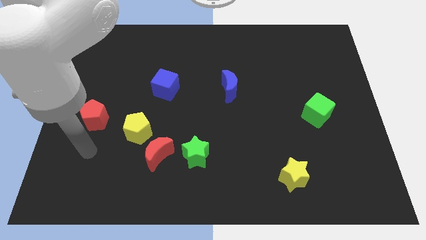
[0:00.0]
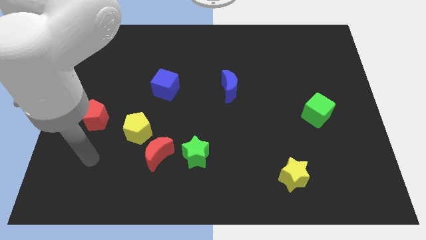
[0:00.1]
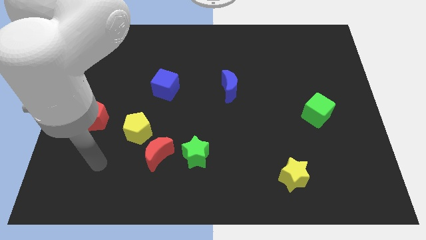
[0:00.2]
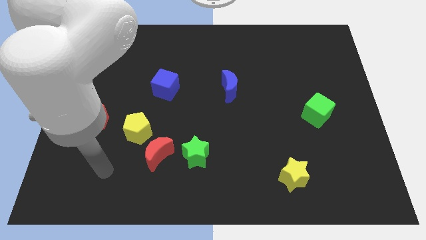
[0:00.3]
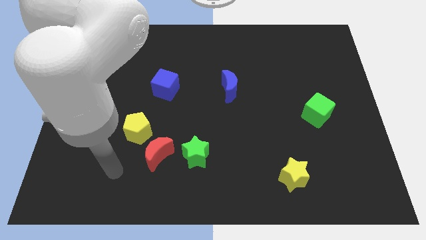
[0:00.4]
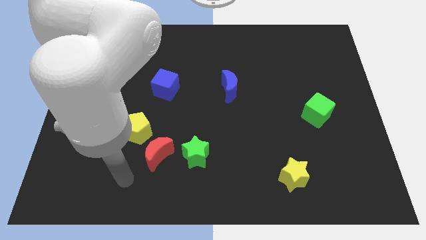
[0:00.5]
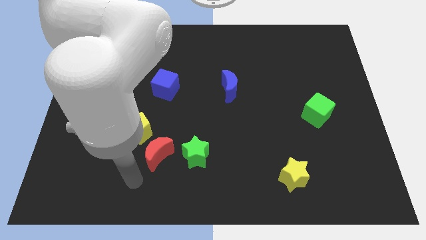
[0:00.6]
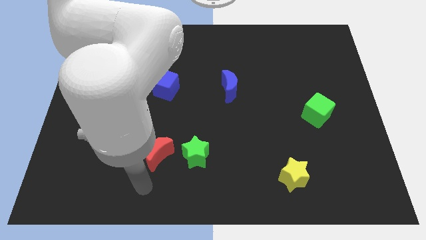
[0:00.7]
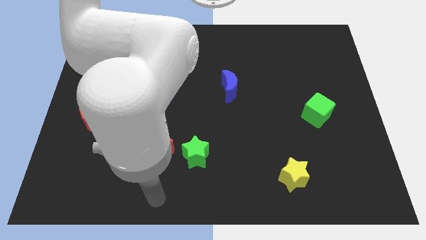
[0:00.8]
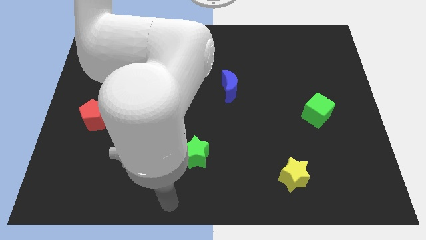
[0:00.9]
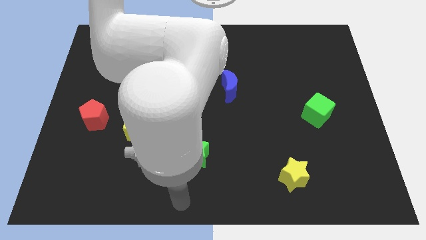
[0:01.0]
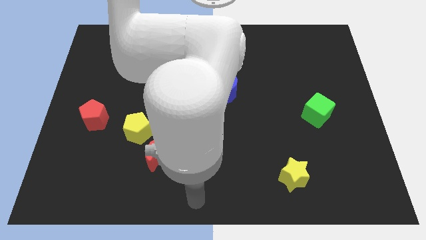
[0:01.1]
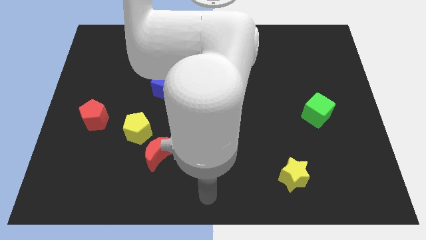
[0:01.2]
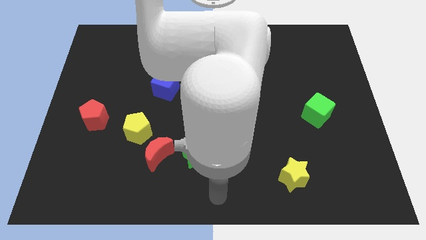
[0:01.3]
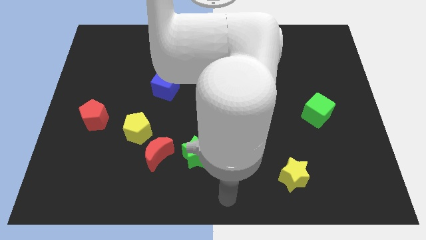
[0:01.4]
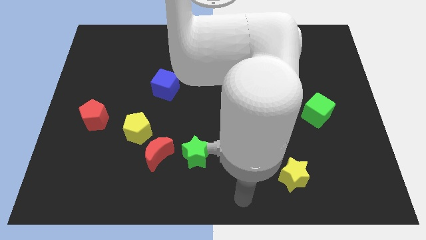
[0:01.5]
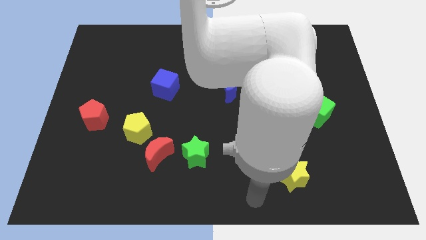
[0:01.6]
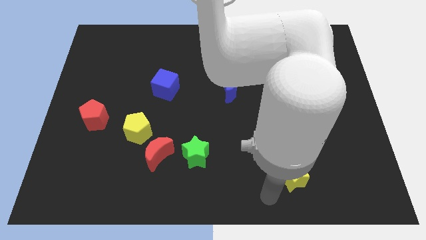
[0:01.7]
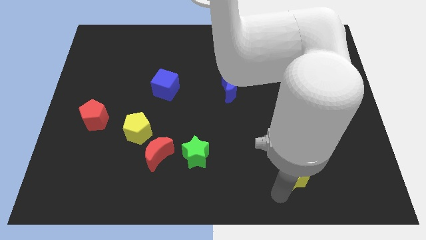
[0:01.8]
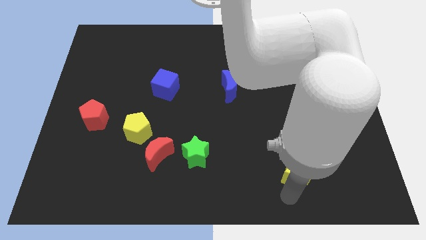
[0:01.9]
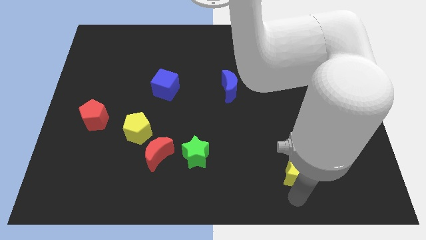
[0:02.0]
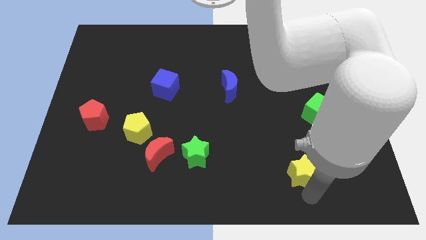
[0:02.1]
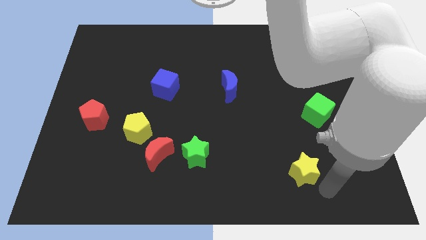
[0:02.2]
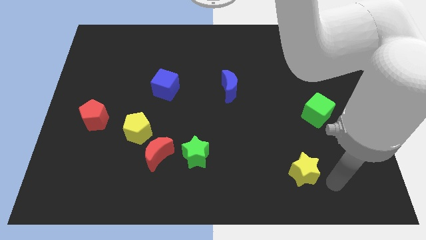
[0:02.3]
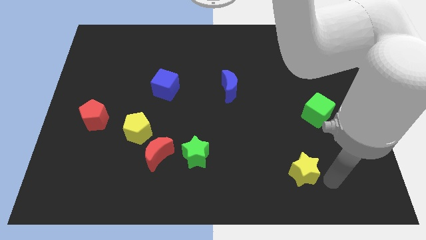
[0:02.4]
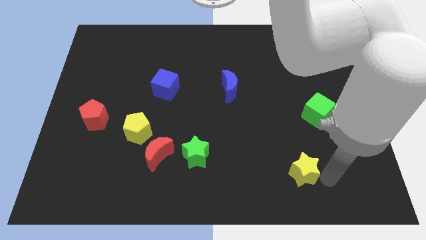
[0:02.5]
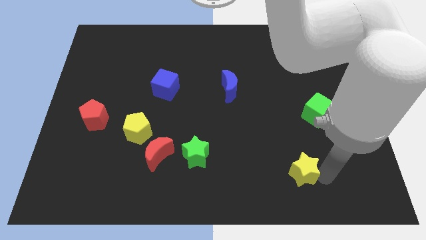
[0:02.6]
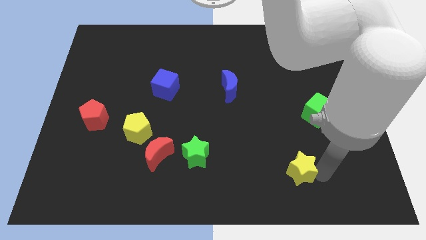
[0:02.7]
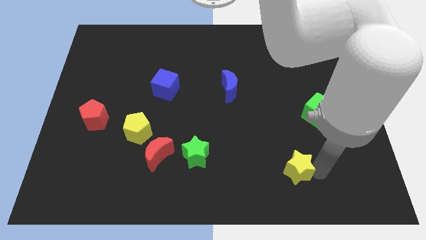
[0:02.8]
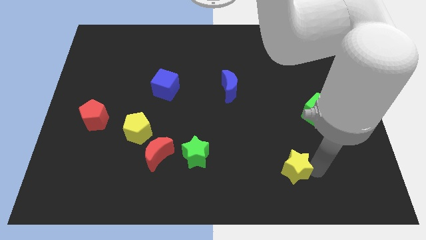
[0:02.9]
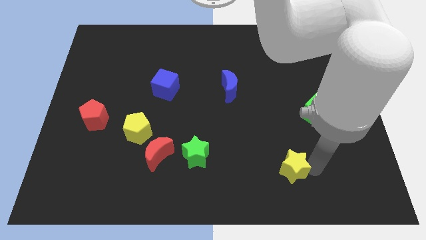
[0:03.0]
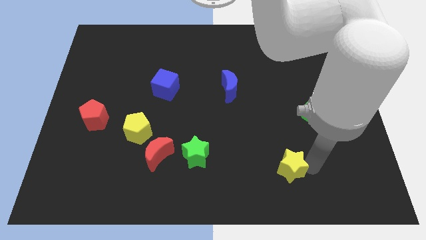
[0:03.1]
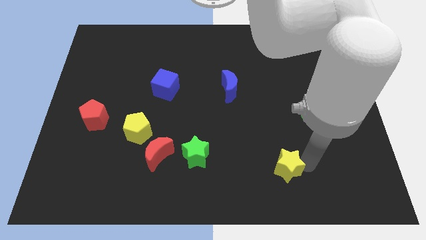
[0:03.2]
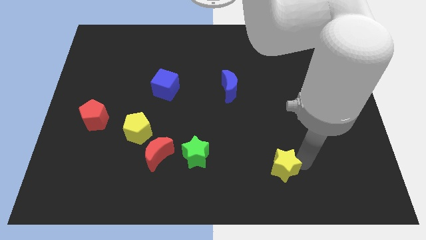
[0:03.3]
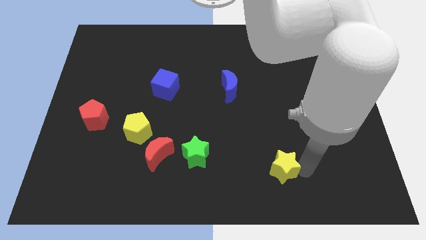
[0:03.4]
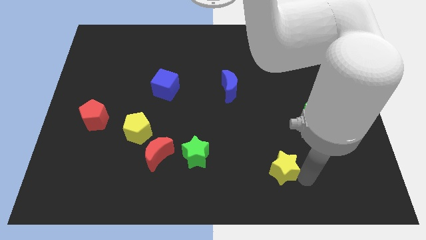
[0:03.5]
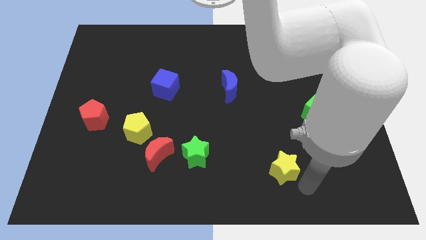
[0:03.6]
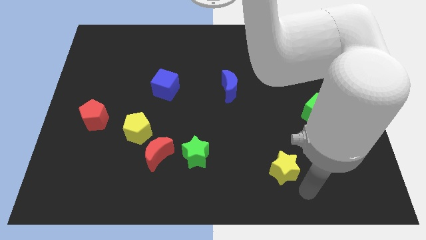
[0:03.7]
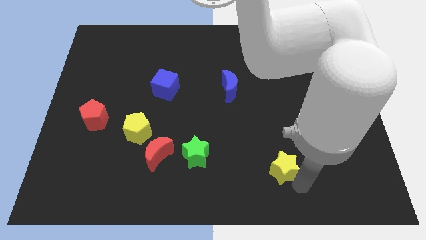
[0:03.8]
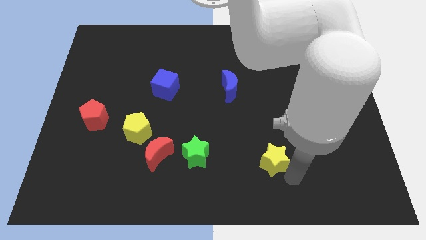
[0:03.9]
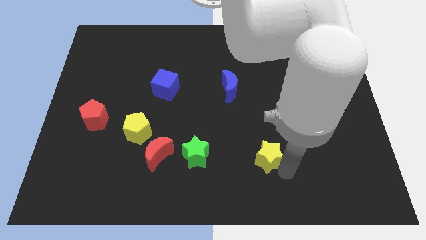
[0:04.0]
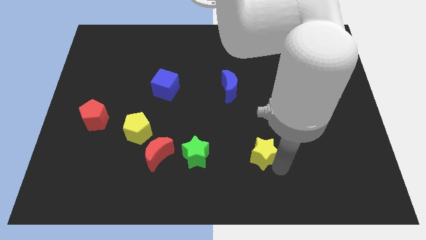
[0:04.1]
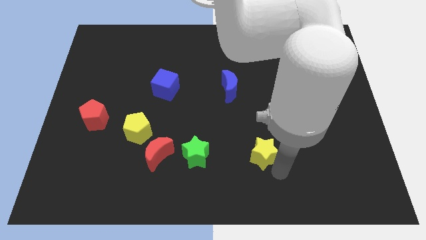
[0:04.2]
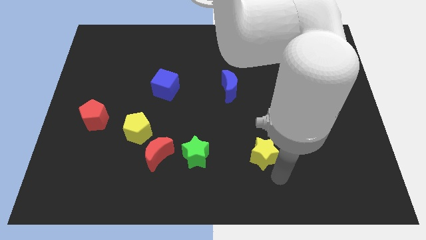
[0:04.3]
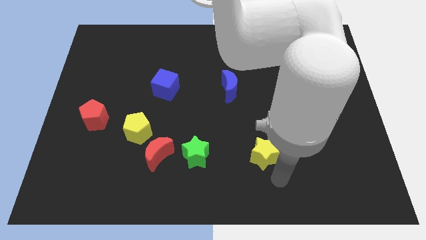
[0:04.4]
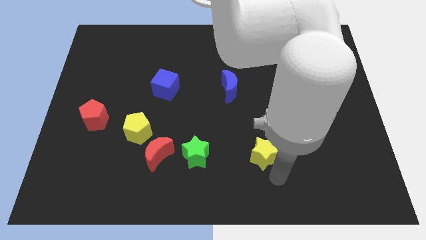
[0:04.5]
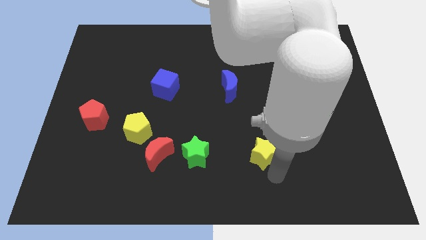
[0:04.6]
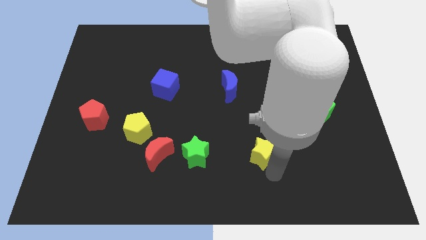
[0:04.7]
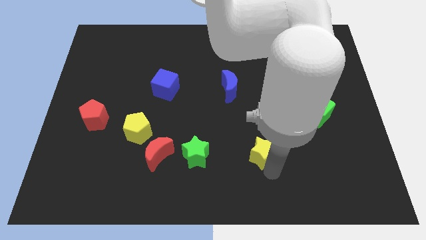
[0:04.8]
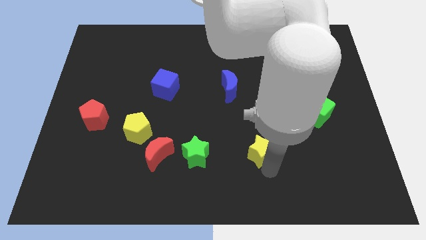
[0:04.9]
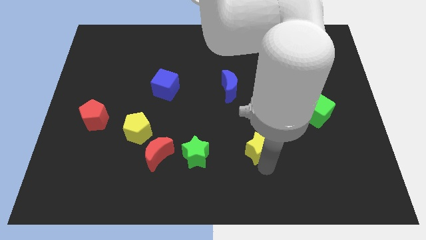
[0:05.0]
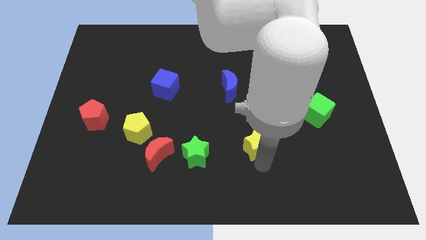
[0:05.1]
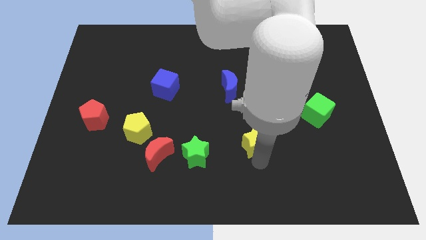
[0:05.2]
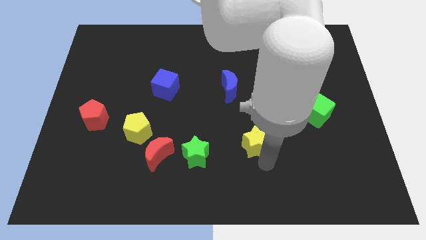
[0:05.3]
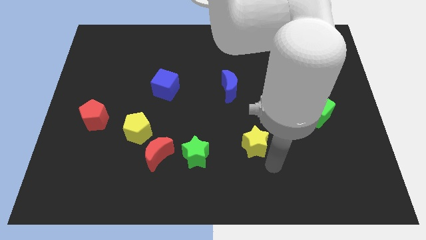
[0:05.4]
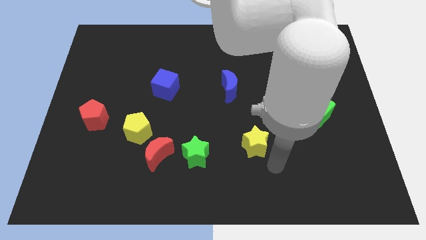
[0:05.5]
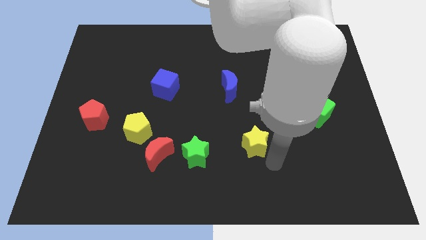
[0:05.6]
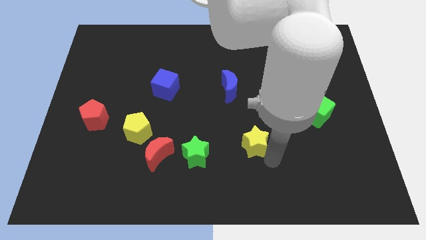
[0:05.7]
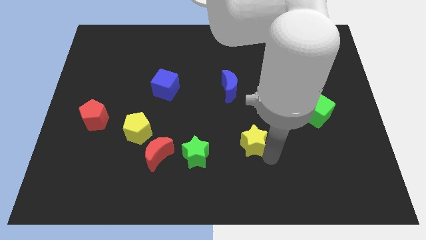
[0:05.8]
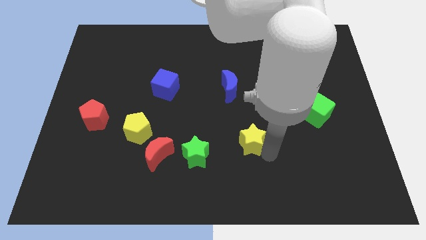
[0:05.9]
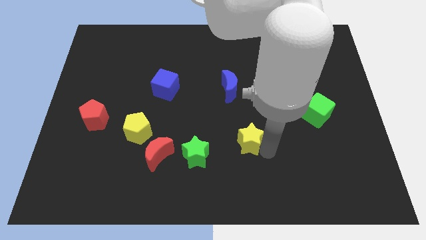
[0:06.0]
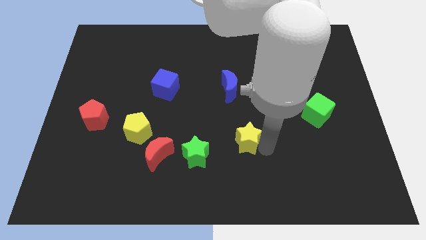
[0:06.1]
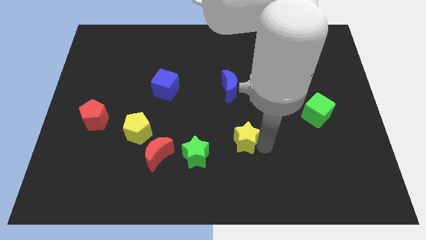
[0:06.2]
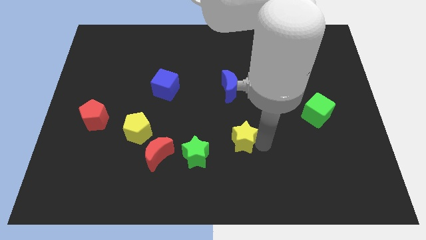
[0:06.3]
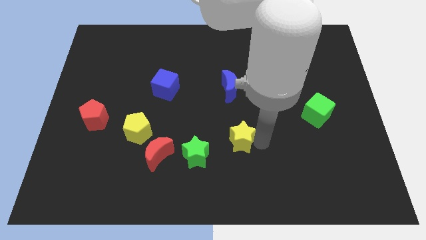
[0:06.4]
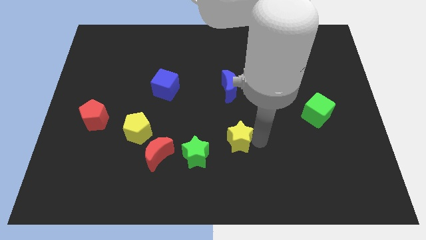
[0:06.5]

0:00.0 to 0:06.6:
slide the yellow star to the middle

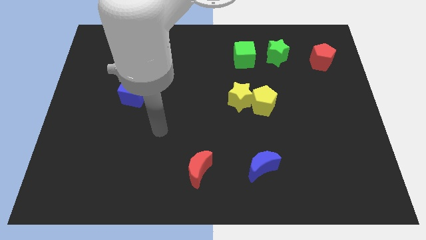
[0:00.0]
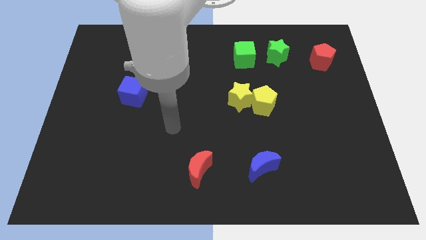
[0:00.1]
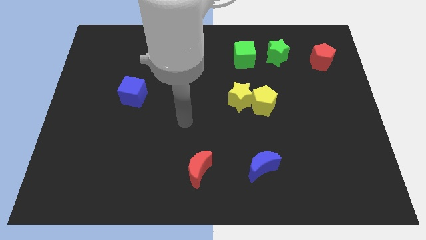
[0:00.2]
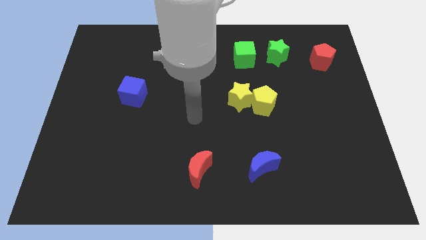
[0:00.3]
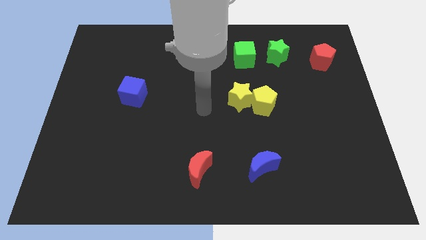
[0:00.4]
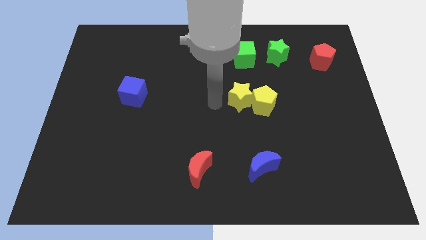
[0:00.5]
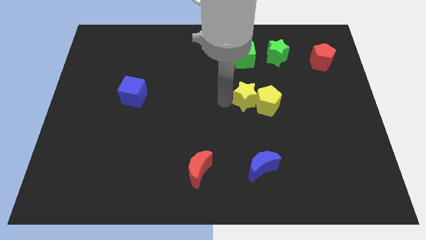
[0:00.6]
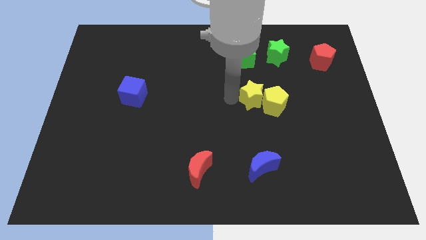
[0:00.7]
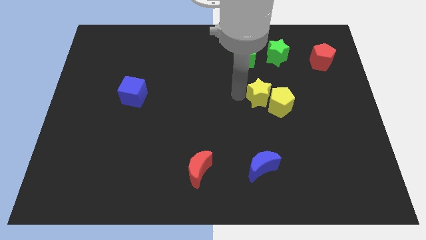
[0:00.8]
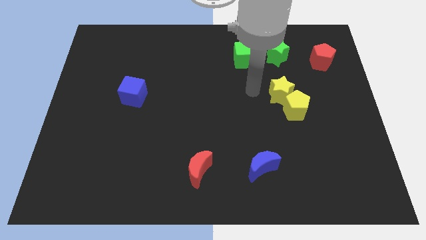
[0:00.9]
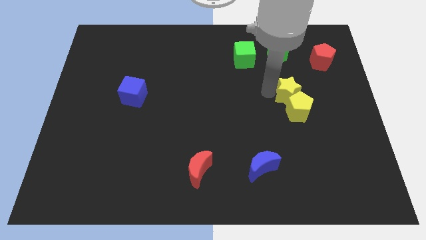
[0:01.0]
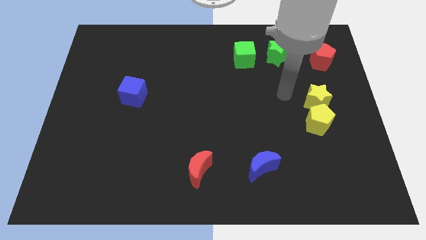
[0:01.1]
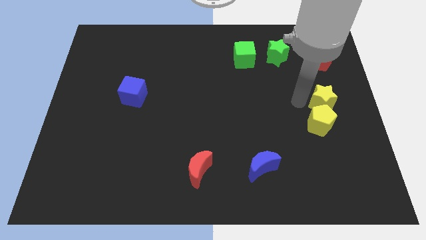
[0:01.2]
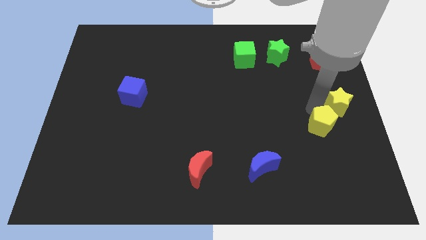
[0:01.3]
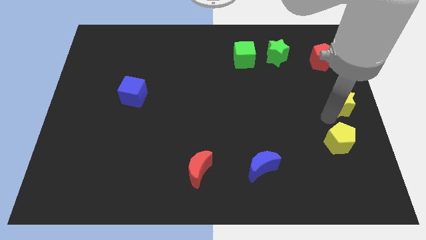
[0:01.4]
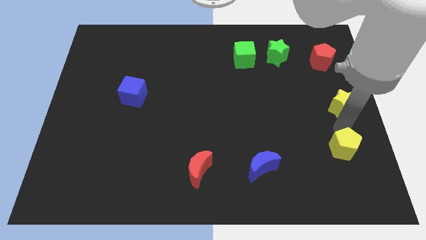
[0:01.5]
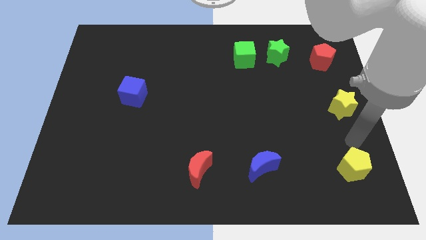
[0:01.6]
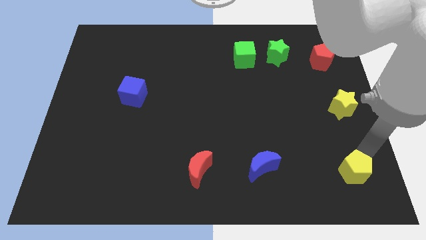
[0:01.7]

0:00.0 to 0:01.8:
push the yellow pentagon to the bottom right
